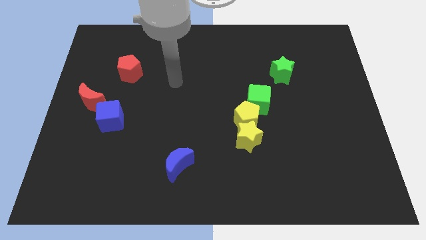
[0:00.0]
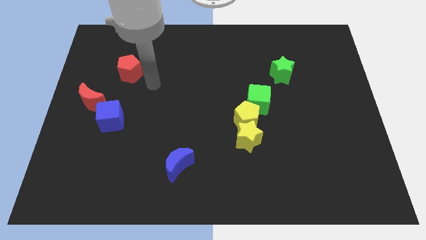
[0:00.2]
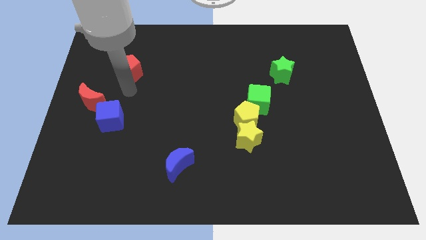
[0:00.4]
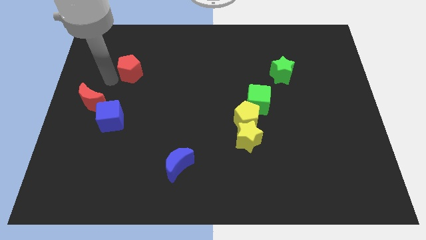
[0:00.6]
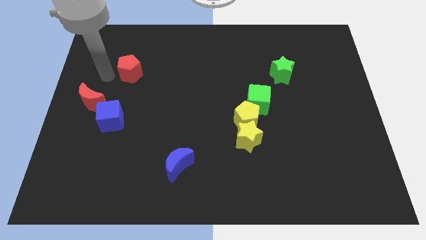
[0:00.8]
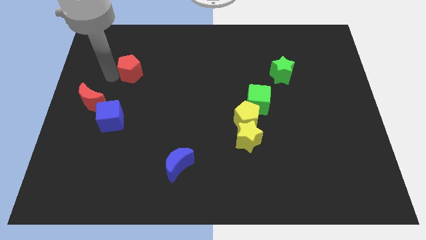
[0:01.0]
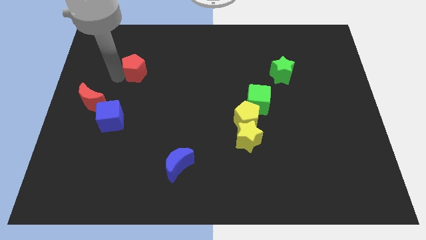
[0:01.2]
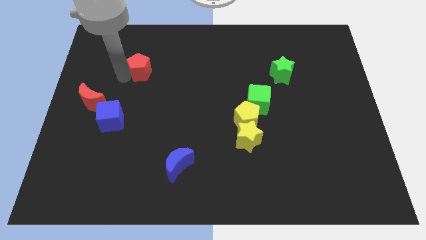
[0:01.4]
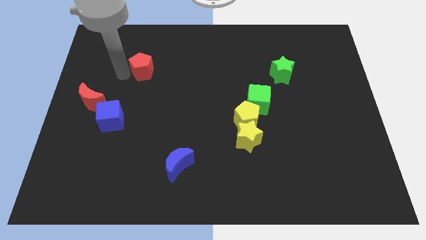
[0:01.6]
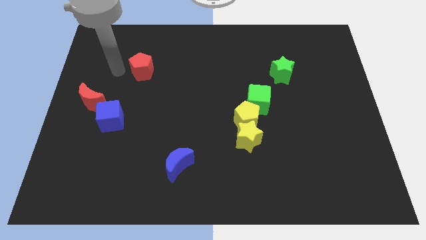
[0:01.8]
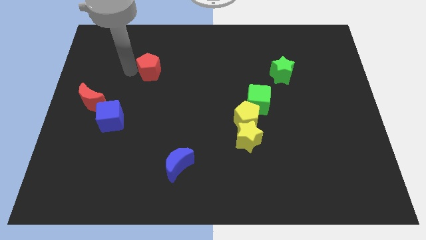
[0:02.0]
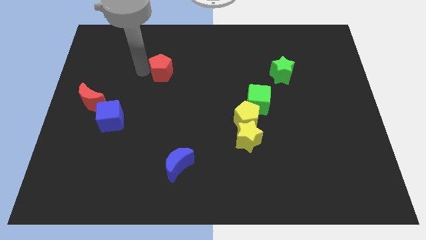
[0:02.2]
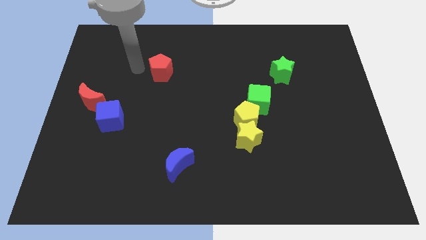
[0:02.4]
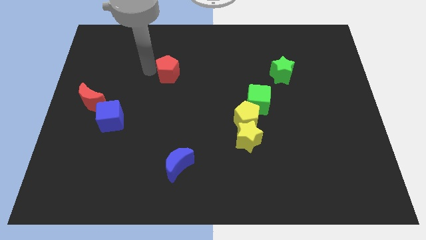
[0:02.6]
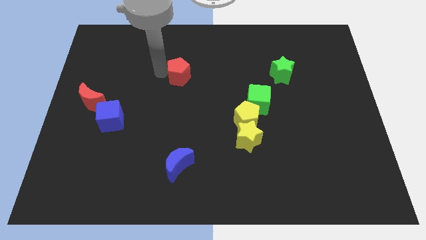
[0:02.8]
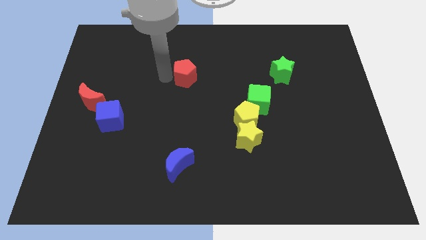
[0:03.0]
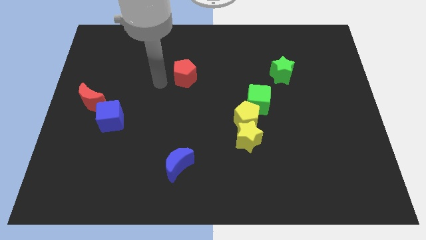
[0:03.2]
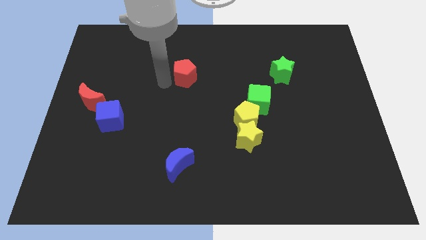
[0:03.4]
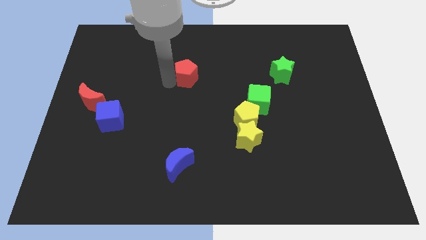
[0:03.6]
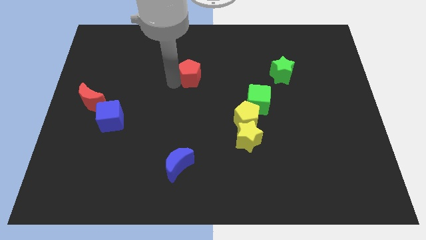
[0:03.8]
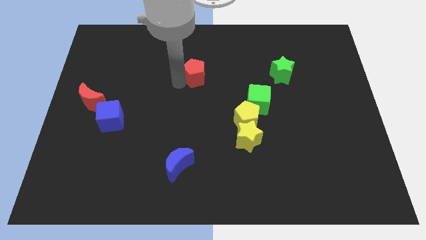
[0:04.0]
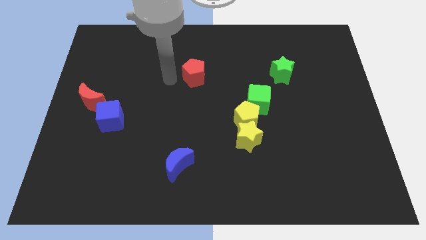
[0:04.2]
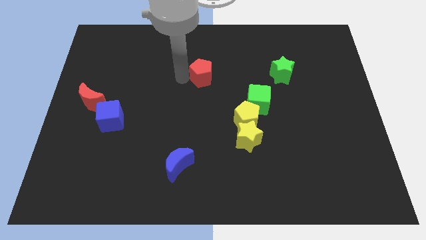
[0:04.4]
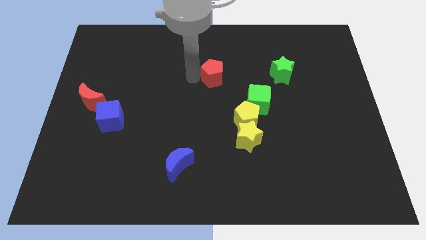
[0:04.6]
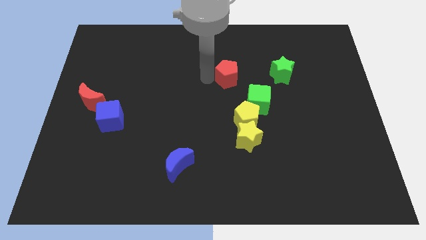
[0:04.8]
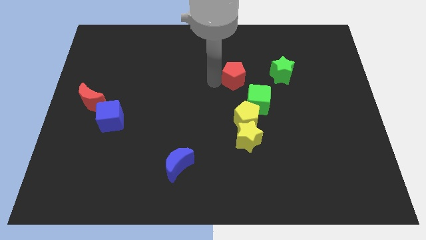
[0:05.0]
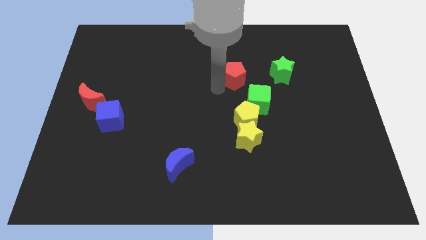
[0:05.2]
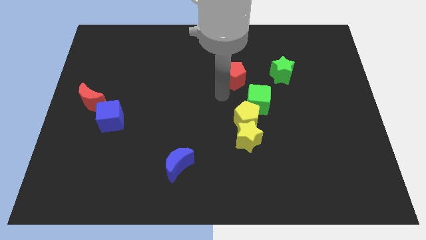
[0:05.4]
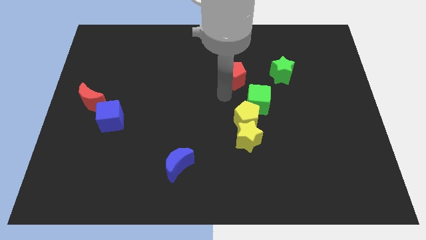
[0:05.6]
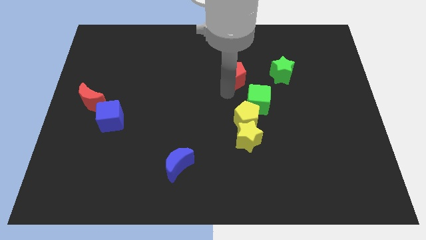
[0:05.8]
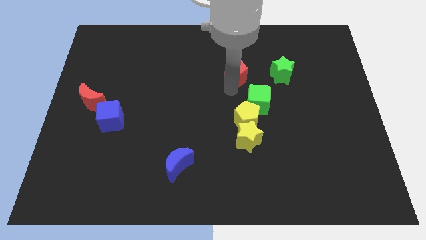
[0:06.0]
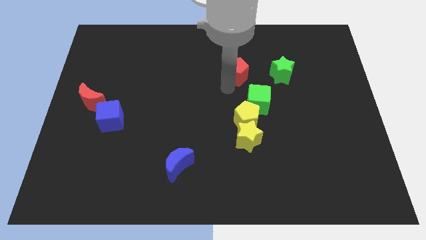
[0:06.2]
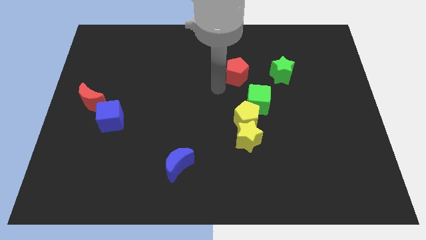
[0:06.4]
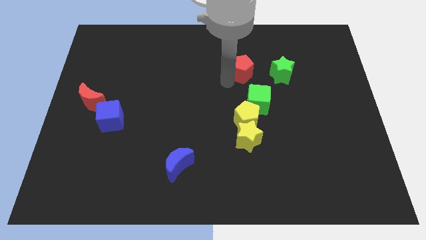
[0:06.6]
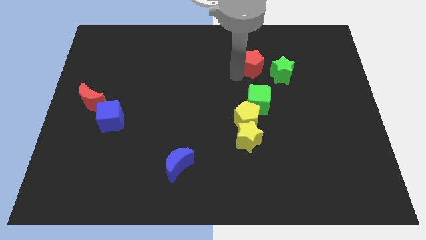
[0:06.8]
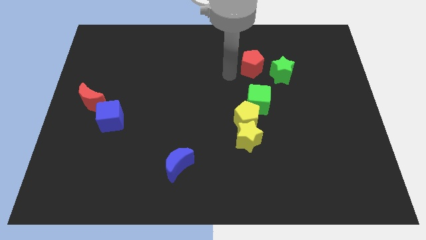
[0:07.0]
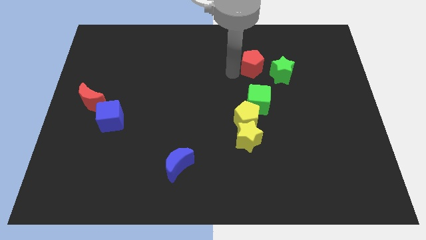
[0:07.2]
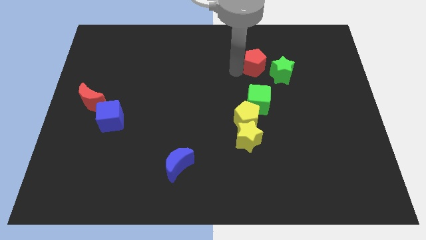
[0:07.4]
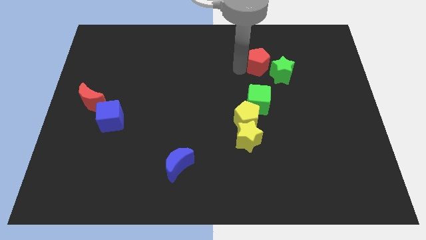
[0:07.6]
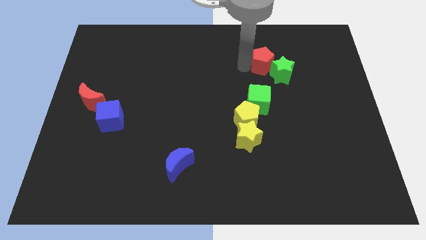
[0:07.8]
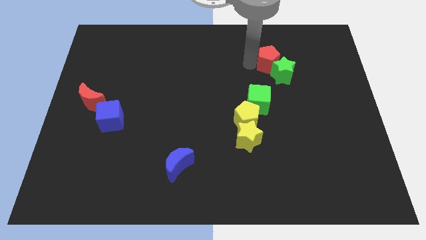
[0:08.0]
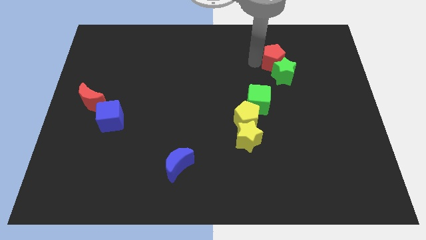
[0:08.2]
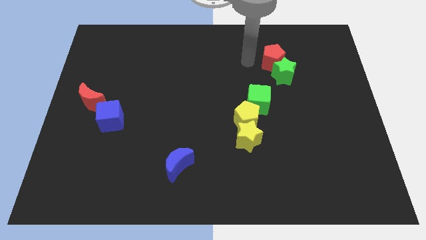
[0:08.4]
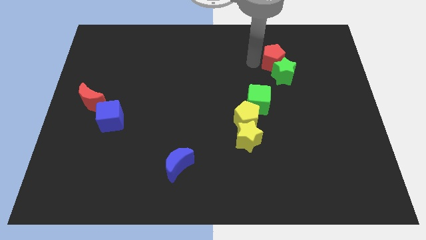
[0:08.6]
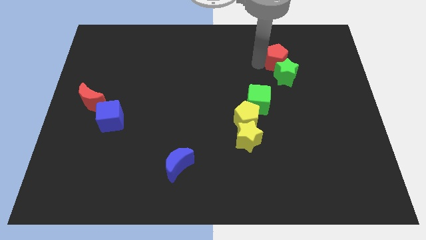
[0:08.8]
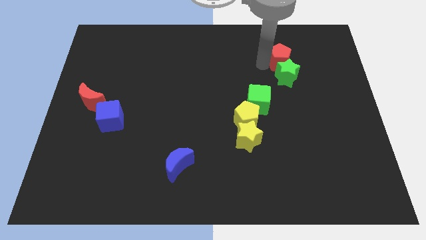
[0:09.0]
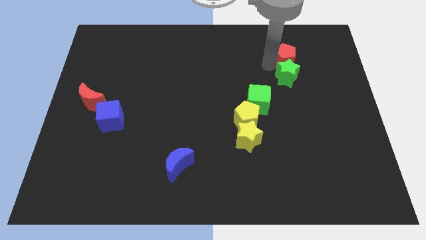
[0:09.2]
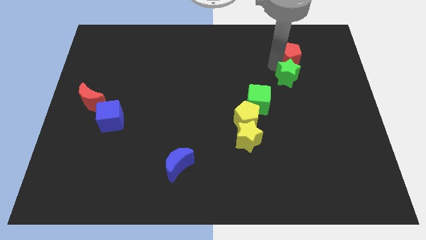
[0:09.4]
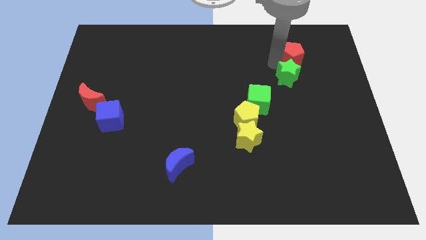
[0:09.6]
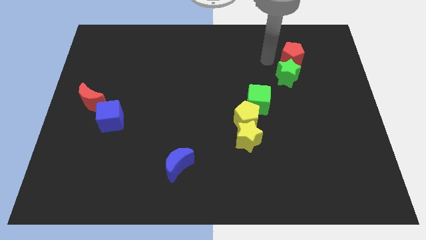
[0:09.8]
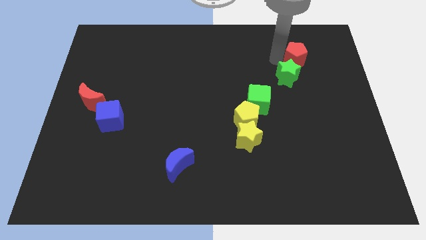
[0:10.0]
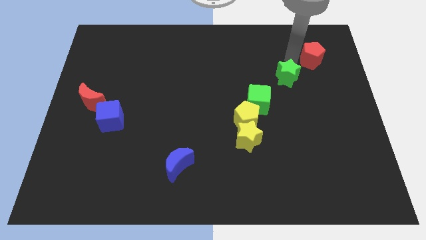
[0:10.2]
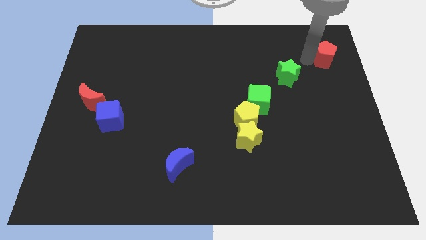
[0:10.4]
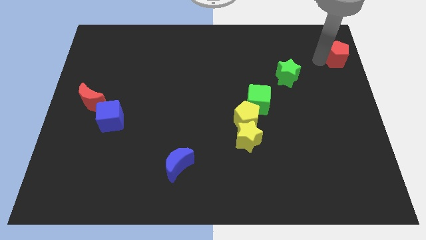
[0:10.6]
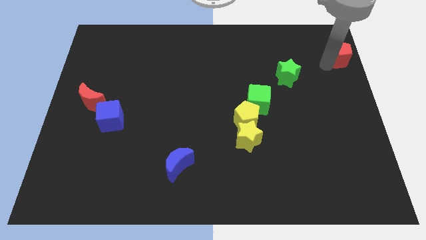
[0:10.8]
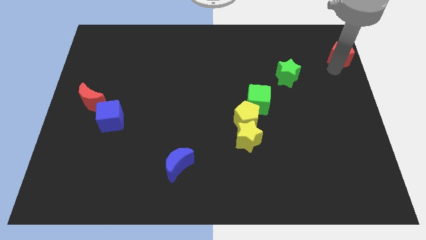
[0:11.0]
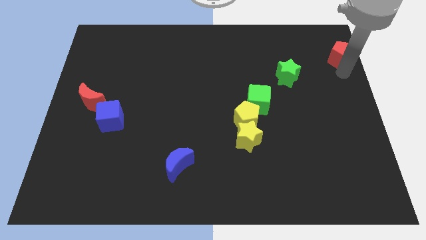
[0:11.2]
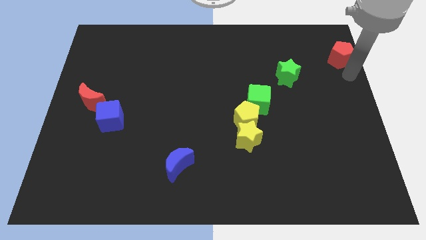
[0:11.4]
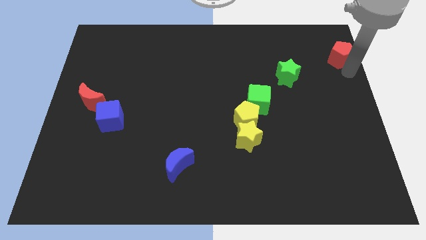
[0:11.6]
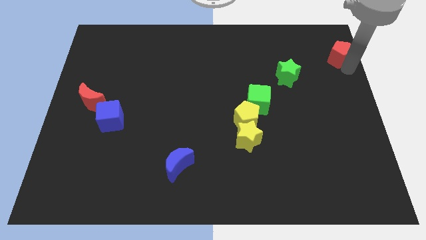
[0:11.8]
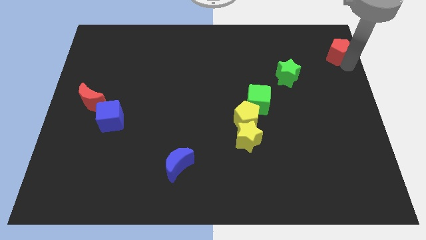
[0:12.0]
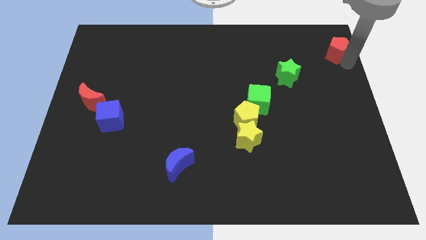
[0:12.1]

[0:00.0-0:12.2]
push the red pentagon to the top right of the board

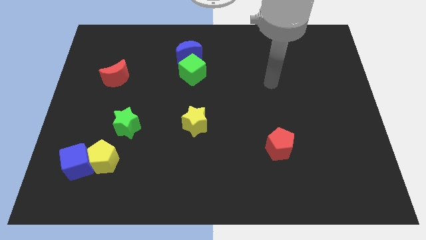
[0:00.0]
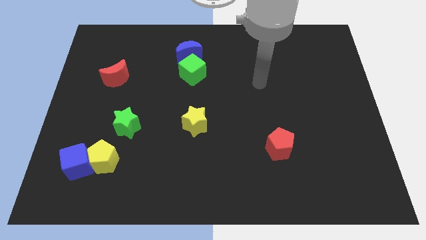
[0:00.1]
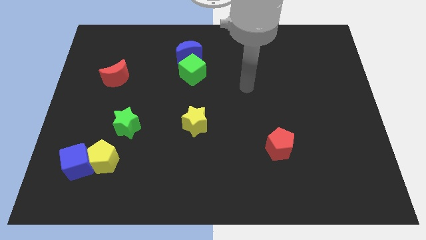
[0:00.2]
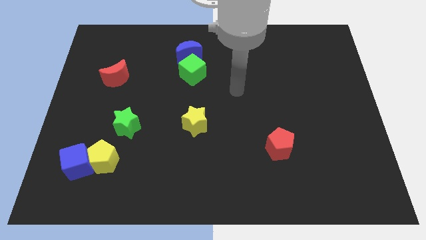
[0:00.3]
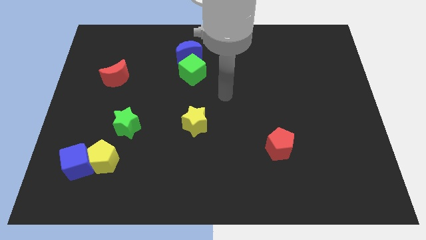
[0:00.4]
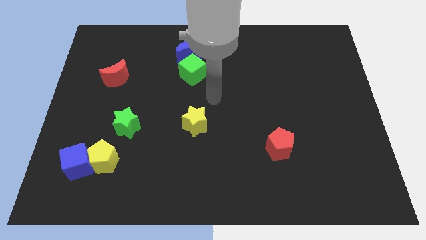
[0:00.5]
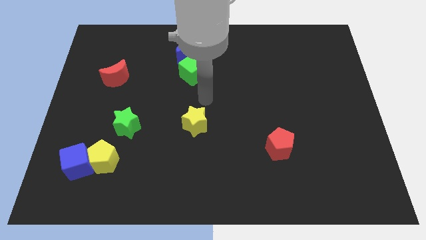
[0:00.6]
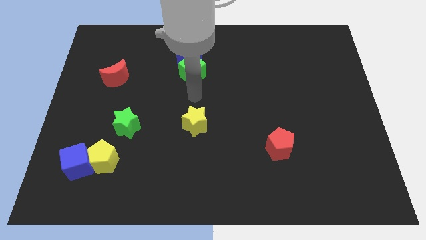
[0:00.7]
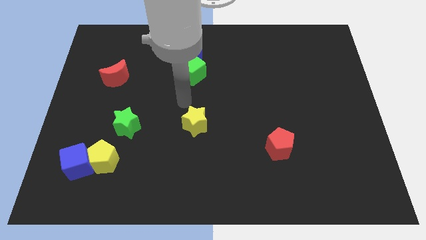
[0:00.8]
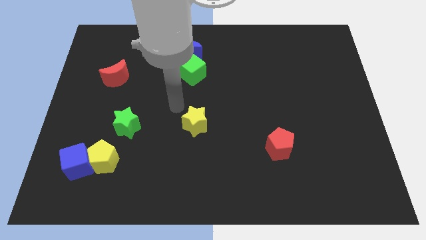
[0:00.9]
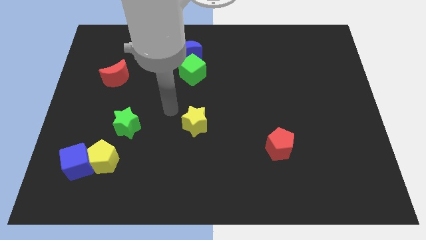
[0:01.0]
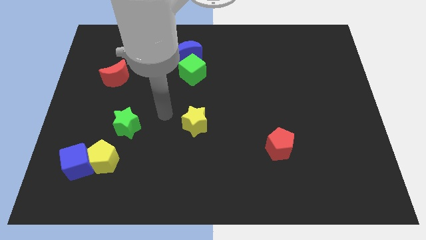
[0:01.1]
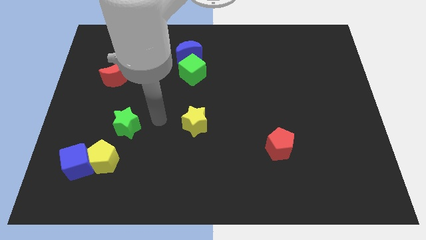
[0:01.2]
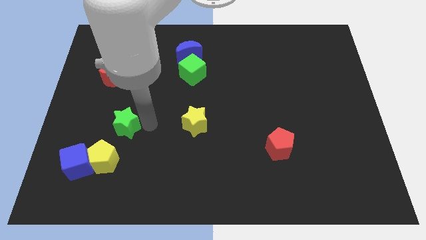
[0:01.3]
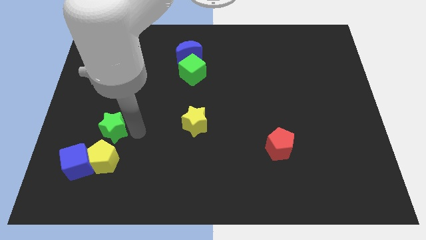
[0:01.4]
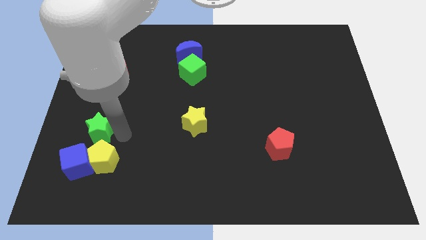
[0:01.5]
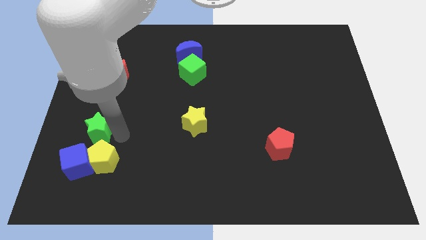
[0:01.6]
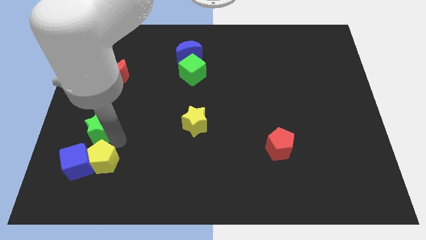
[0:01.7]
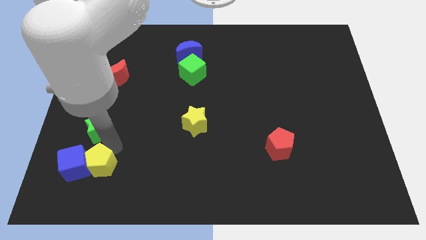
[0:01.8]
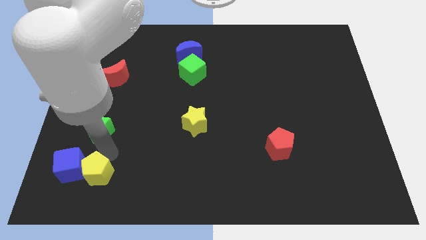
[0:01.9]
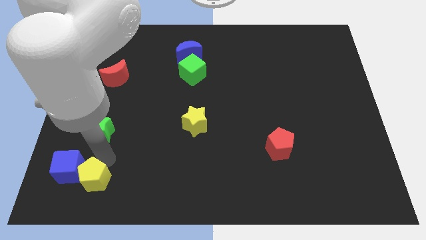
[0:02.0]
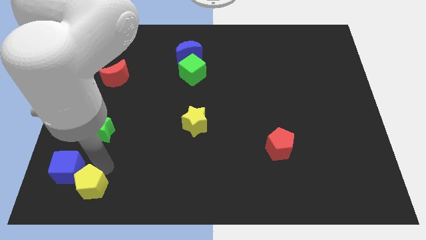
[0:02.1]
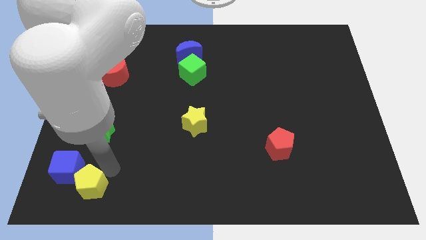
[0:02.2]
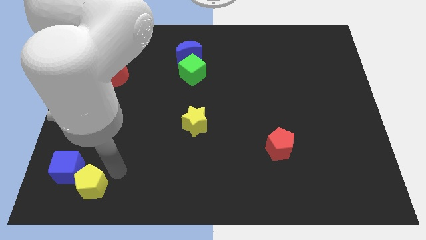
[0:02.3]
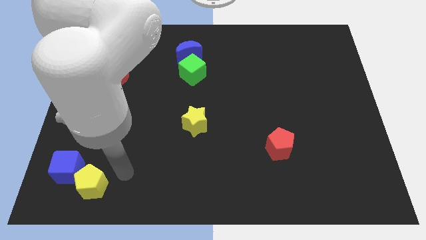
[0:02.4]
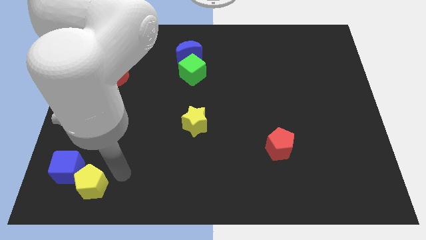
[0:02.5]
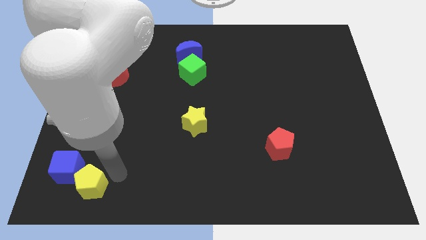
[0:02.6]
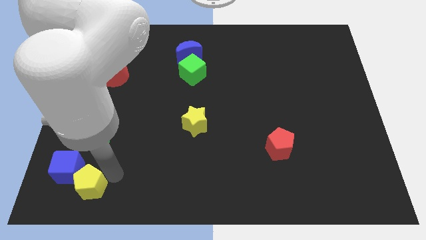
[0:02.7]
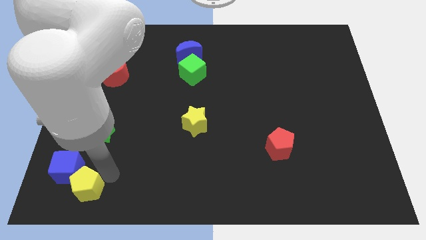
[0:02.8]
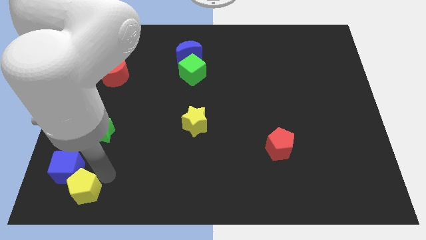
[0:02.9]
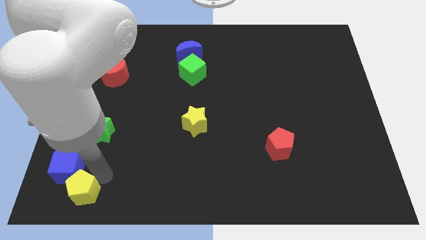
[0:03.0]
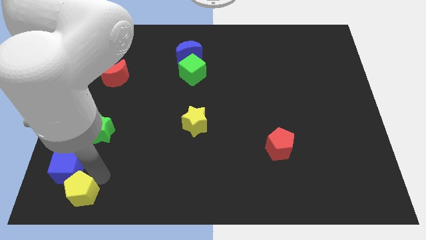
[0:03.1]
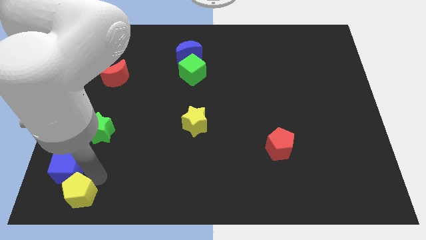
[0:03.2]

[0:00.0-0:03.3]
push the yellow pentagon to the bottom left corner
